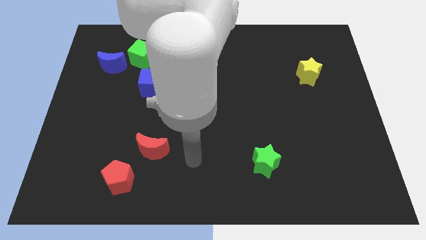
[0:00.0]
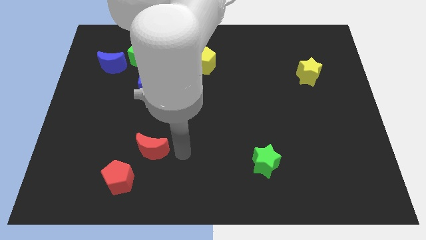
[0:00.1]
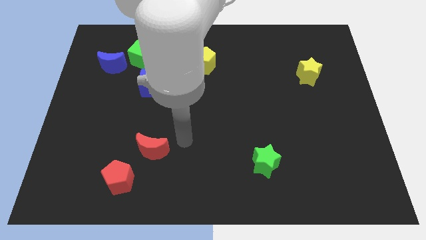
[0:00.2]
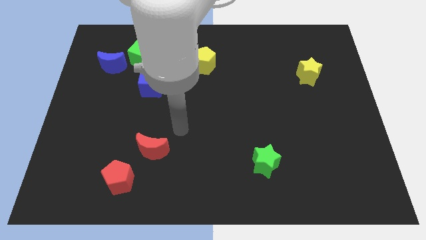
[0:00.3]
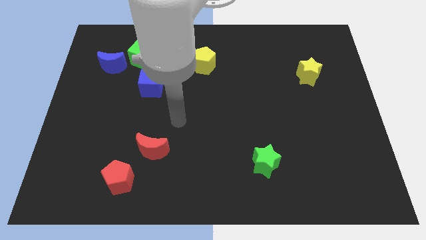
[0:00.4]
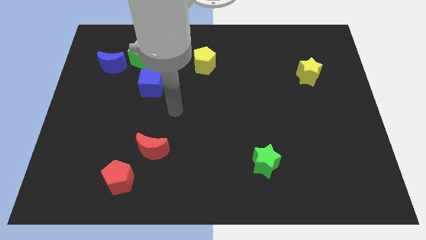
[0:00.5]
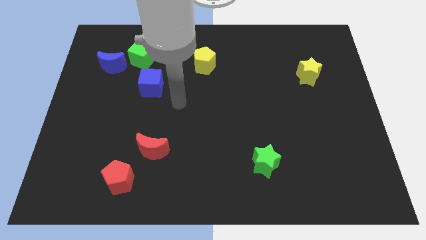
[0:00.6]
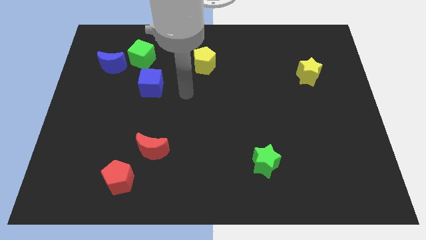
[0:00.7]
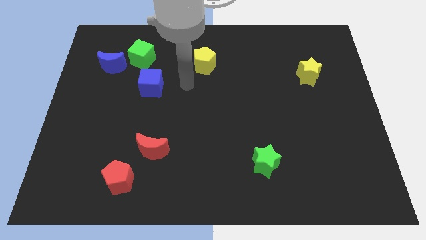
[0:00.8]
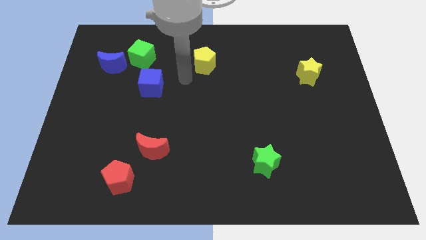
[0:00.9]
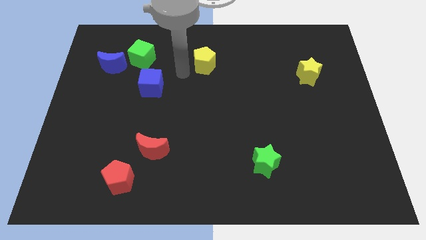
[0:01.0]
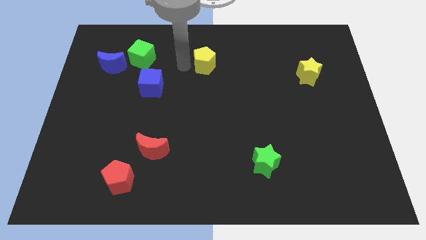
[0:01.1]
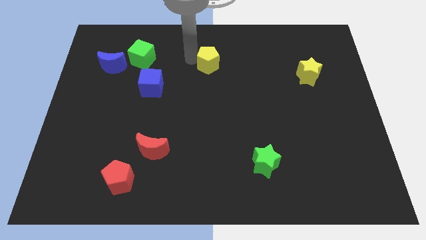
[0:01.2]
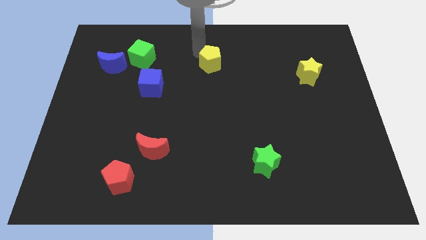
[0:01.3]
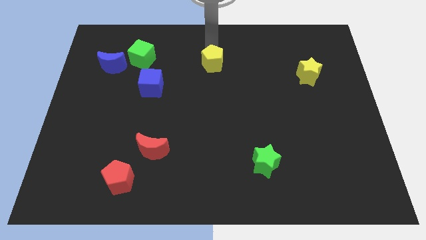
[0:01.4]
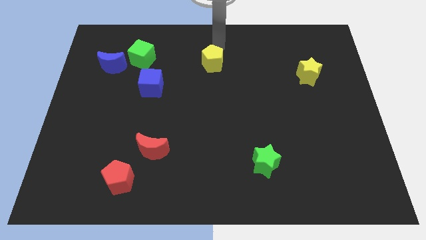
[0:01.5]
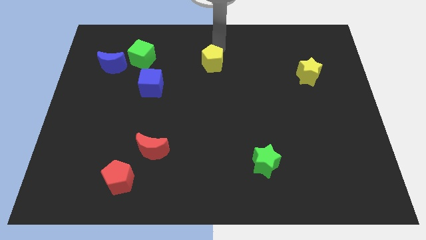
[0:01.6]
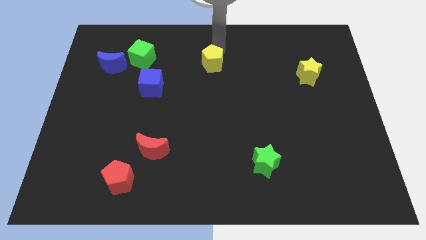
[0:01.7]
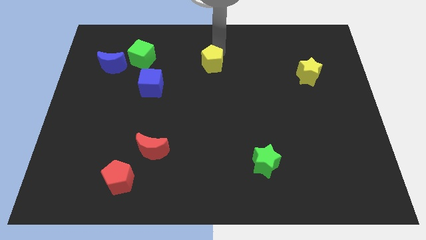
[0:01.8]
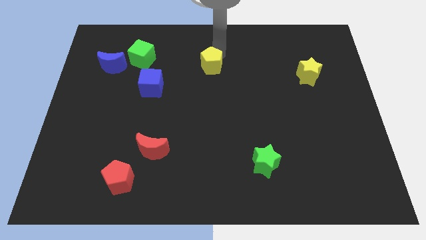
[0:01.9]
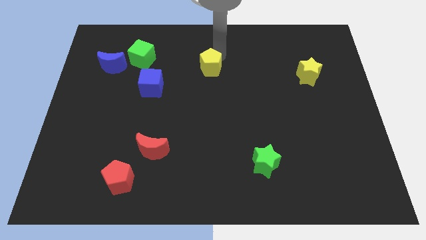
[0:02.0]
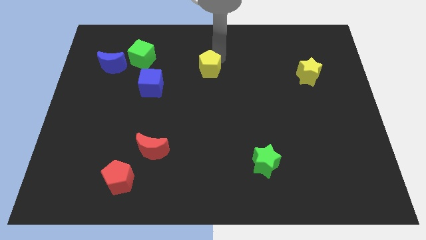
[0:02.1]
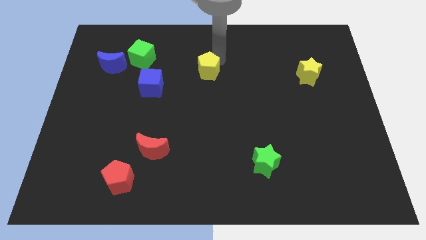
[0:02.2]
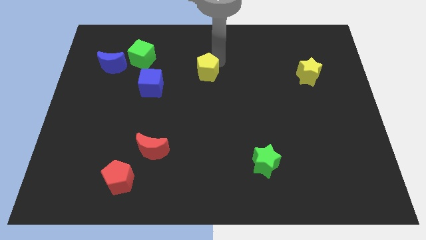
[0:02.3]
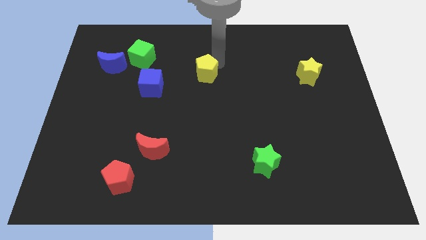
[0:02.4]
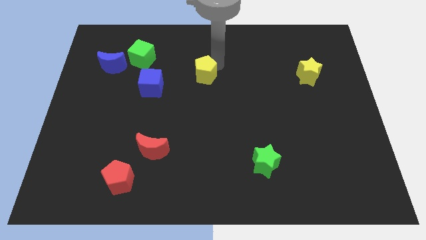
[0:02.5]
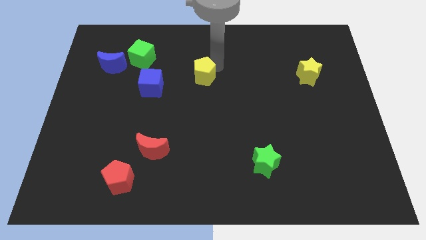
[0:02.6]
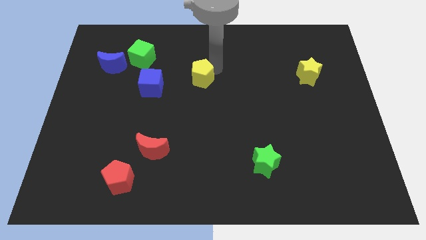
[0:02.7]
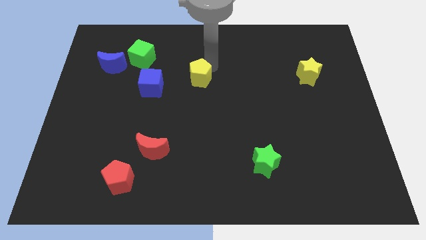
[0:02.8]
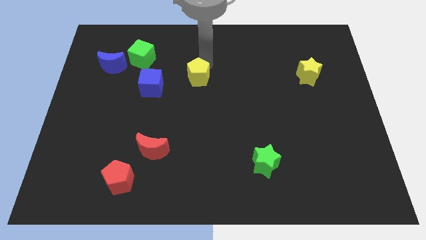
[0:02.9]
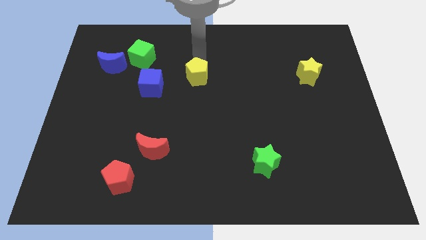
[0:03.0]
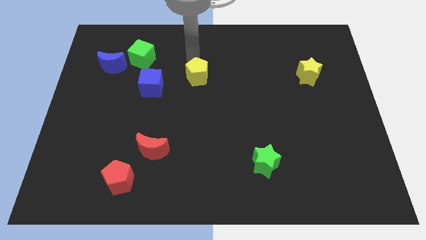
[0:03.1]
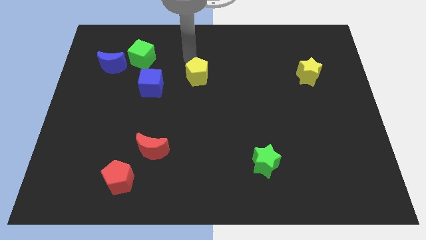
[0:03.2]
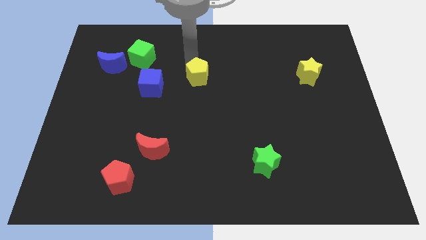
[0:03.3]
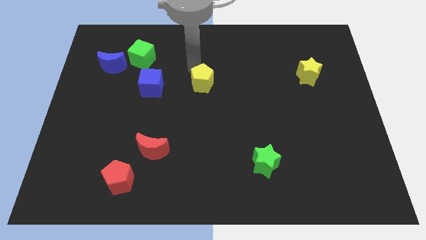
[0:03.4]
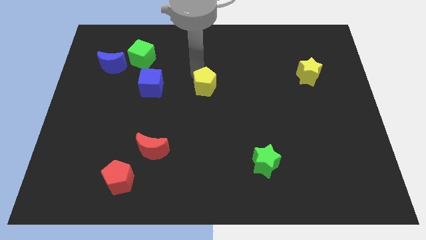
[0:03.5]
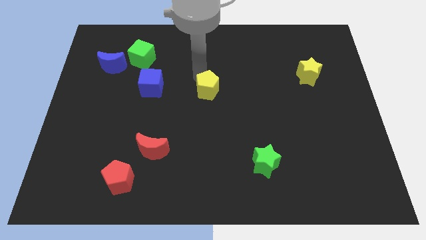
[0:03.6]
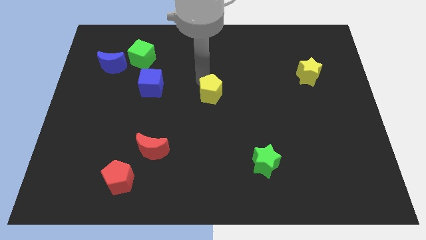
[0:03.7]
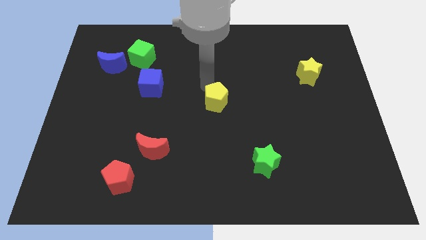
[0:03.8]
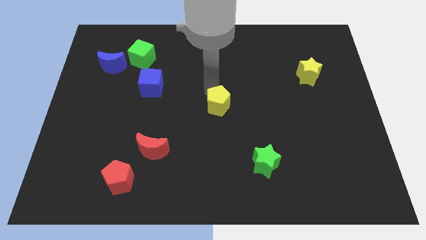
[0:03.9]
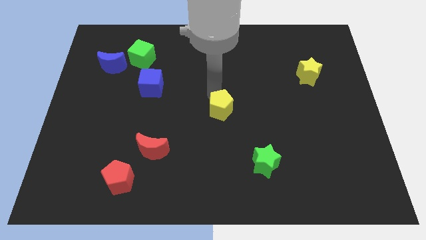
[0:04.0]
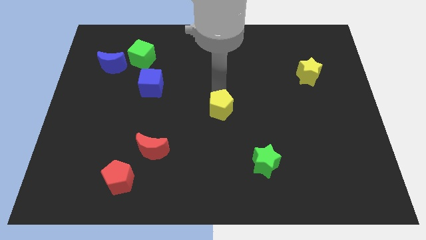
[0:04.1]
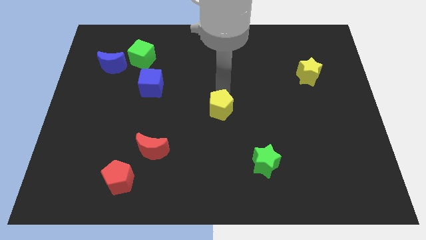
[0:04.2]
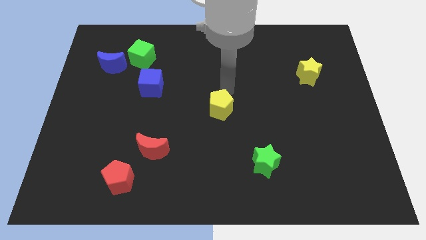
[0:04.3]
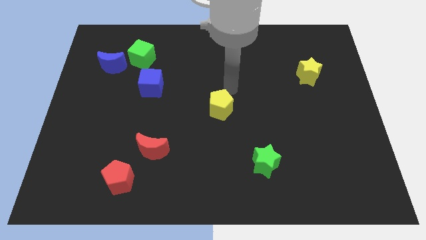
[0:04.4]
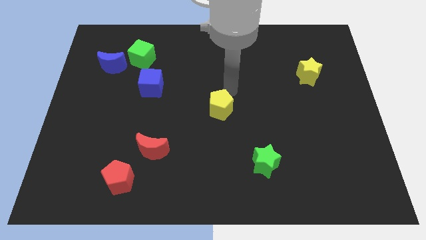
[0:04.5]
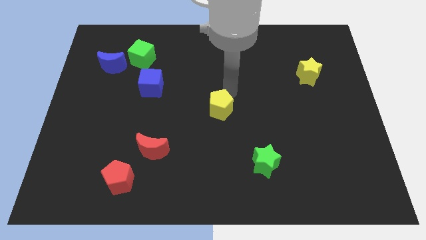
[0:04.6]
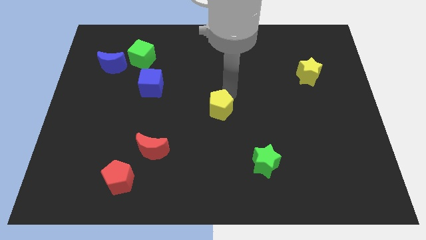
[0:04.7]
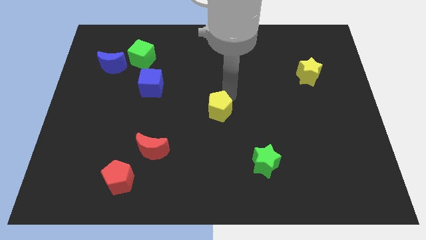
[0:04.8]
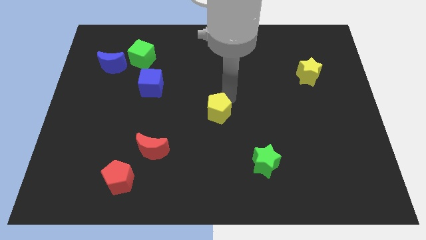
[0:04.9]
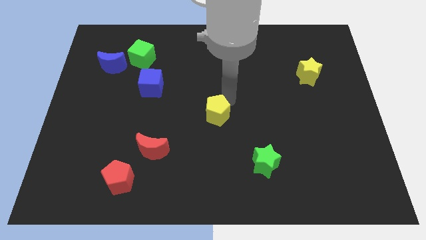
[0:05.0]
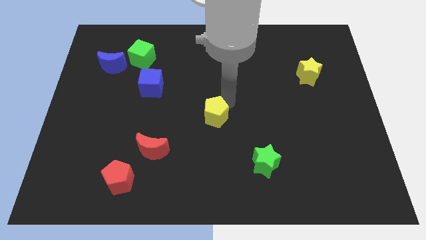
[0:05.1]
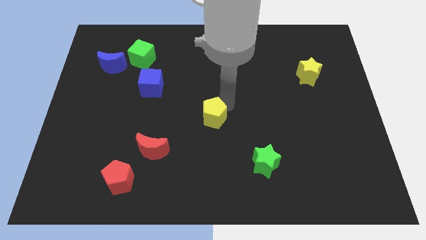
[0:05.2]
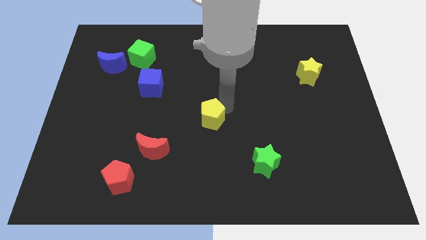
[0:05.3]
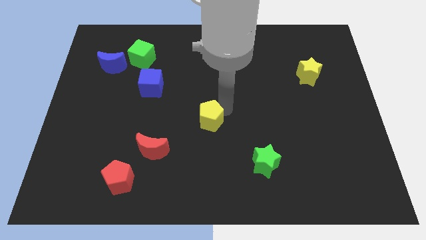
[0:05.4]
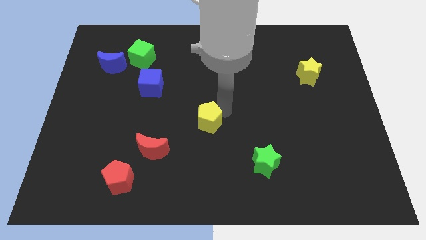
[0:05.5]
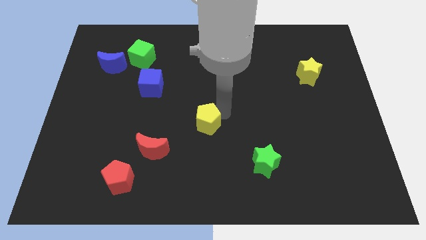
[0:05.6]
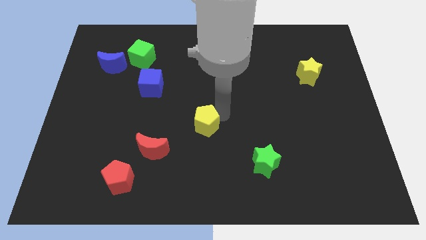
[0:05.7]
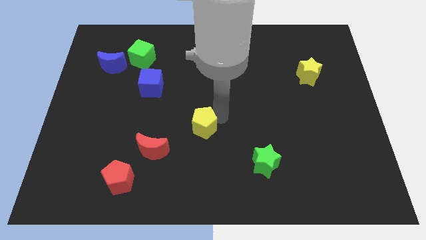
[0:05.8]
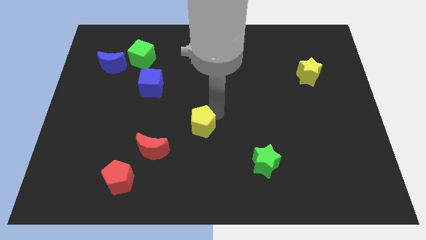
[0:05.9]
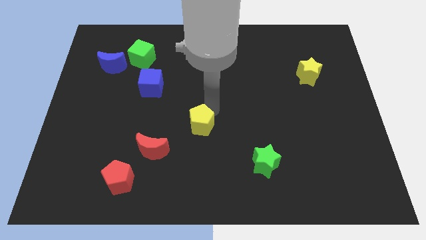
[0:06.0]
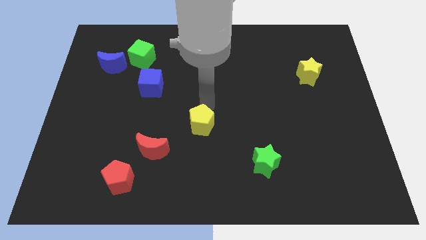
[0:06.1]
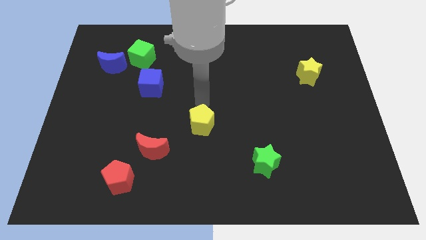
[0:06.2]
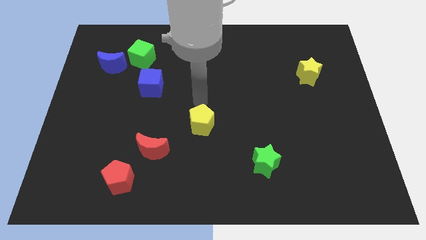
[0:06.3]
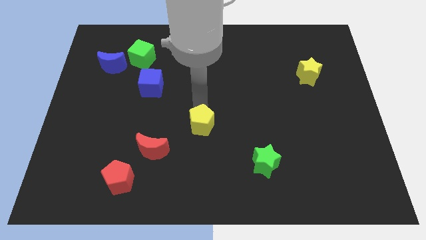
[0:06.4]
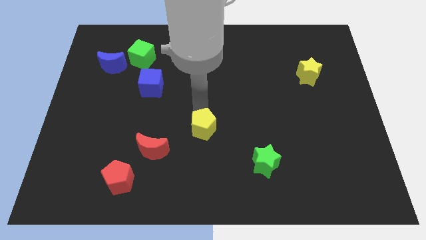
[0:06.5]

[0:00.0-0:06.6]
move the yellow pentagon downwards

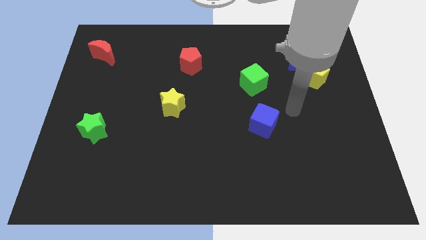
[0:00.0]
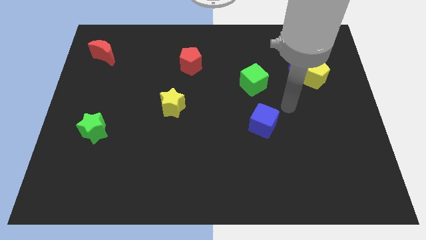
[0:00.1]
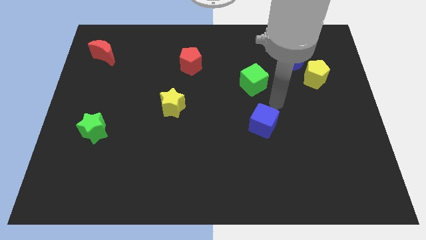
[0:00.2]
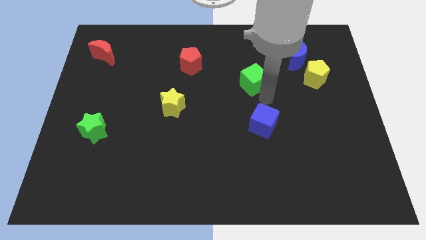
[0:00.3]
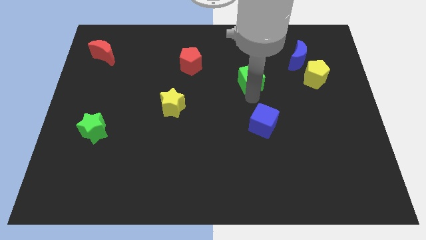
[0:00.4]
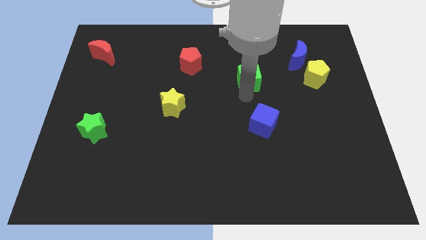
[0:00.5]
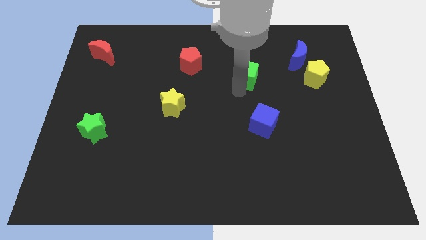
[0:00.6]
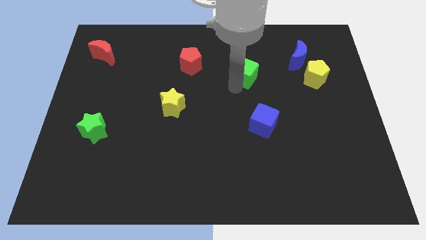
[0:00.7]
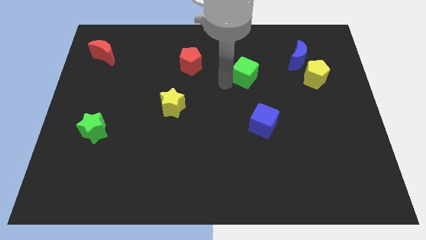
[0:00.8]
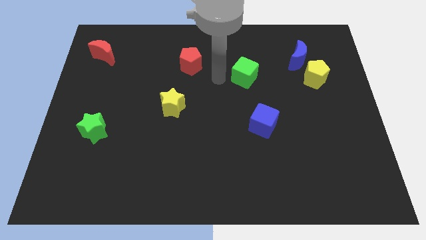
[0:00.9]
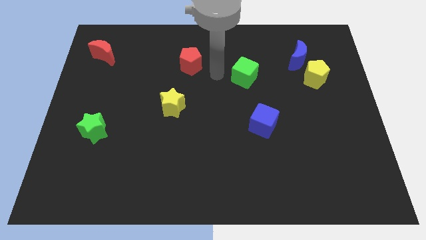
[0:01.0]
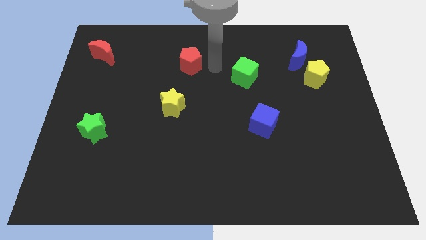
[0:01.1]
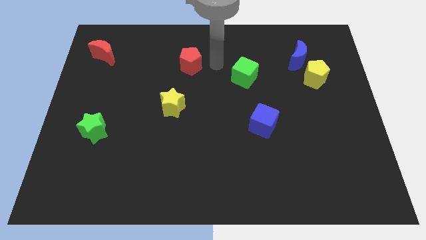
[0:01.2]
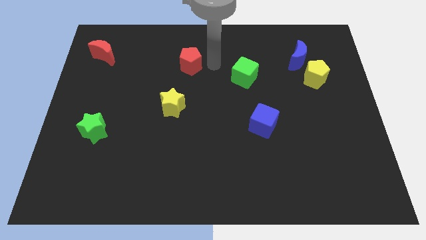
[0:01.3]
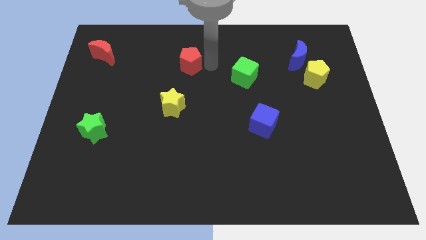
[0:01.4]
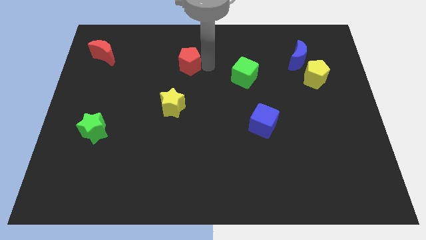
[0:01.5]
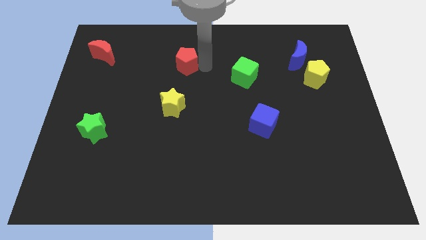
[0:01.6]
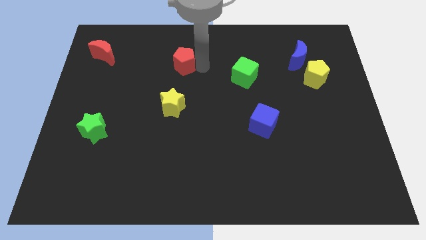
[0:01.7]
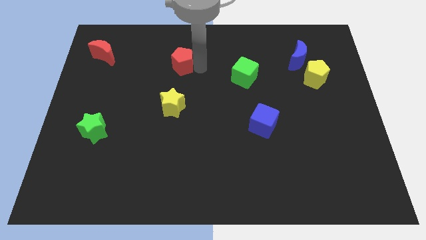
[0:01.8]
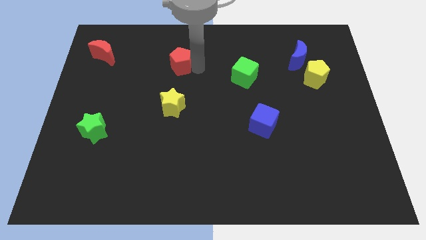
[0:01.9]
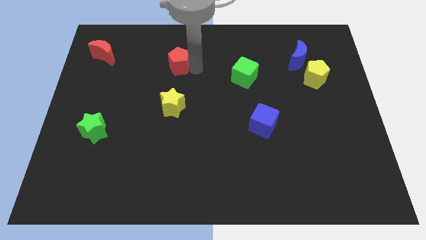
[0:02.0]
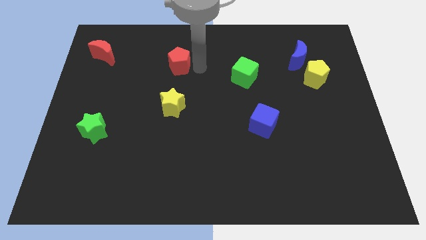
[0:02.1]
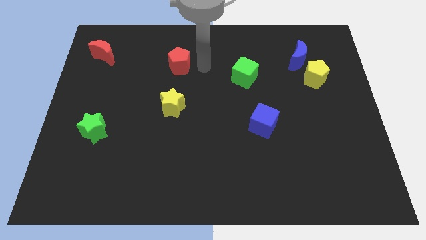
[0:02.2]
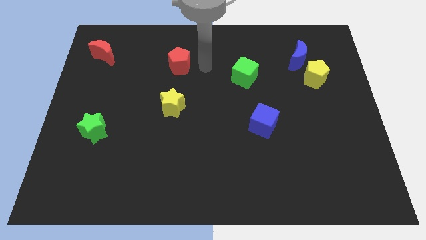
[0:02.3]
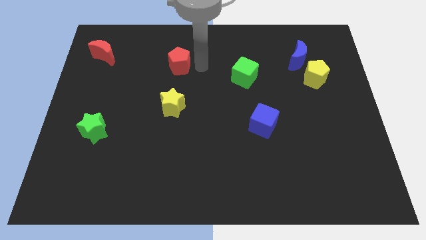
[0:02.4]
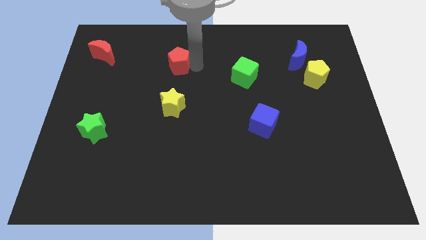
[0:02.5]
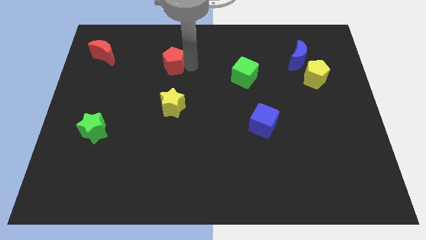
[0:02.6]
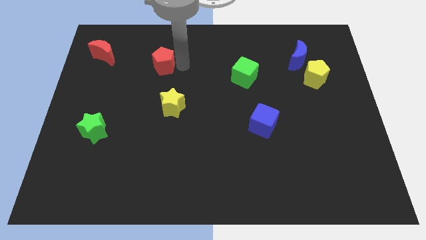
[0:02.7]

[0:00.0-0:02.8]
move the red pentagon to the left slightly
